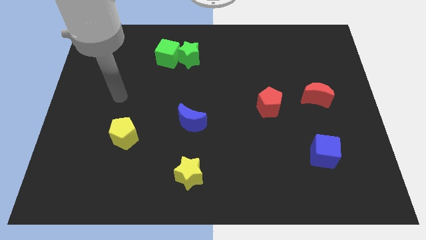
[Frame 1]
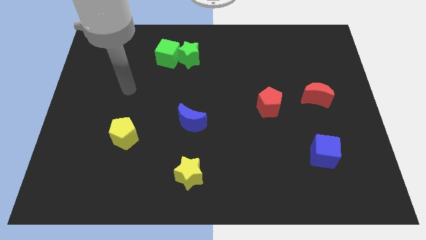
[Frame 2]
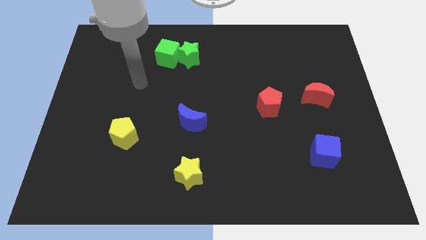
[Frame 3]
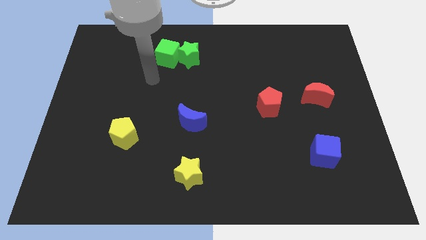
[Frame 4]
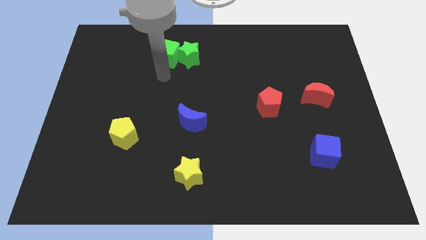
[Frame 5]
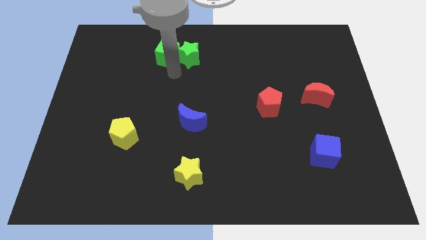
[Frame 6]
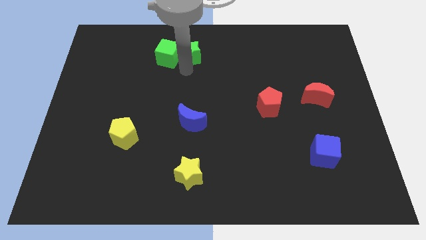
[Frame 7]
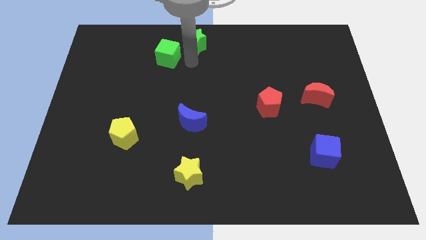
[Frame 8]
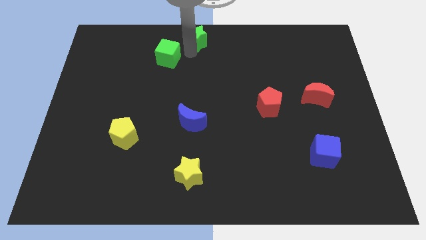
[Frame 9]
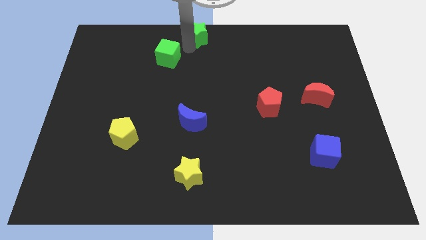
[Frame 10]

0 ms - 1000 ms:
pull the green cube apart from the green star

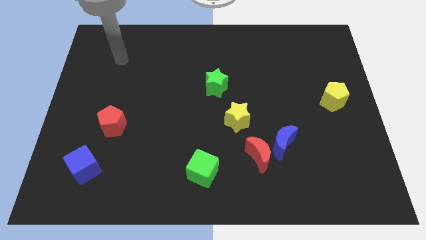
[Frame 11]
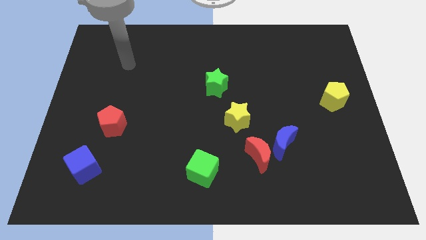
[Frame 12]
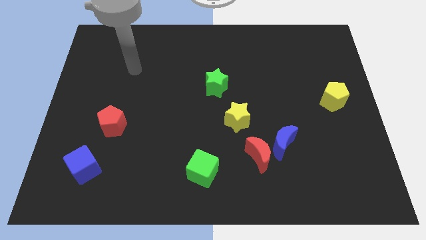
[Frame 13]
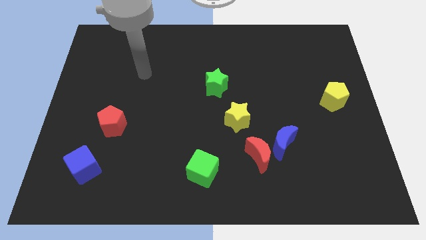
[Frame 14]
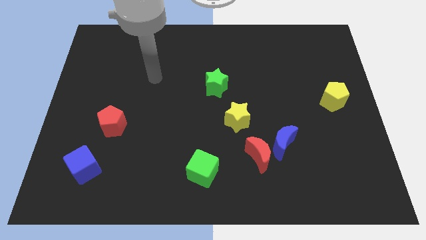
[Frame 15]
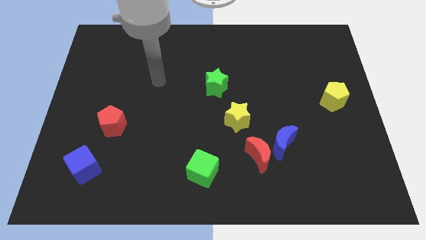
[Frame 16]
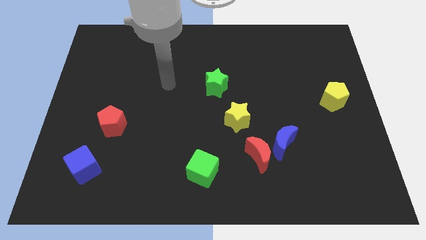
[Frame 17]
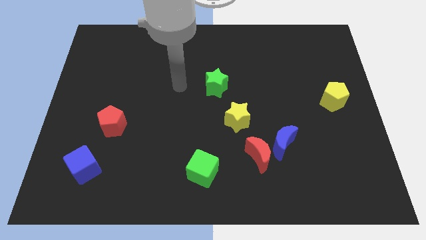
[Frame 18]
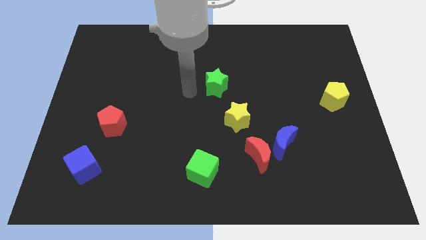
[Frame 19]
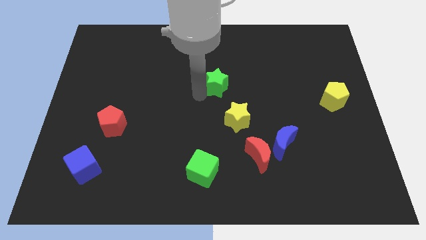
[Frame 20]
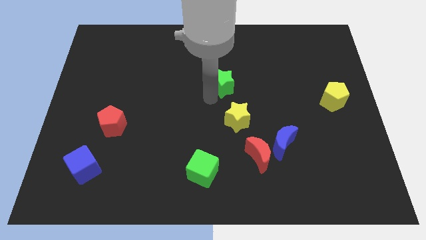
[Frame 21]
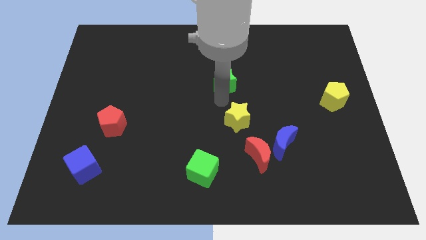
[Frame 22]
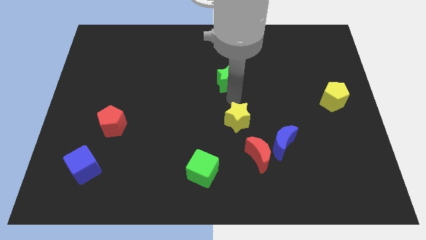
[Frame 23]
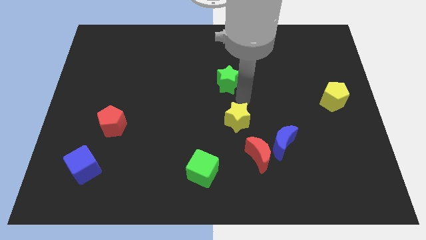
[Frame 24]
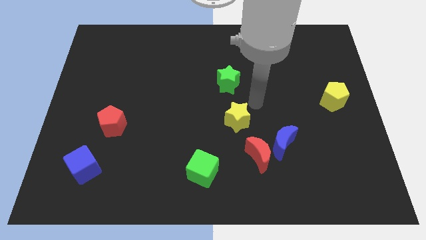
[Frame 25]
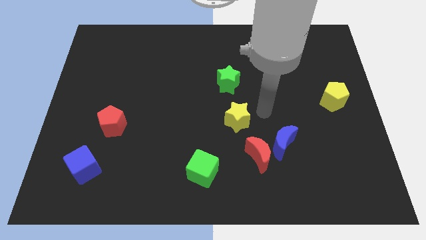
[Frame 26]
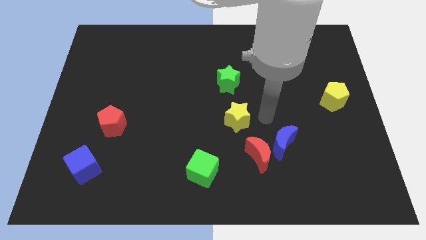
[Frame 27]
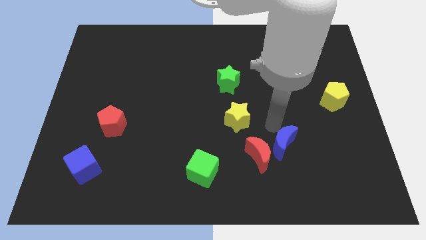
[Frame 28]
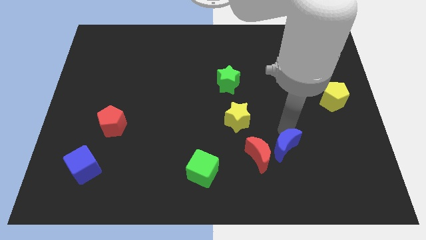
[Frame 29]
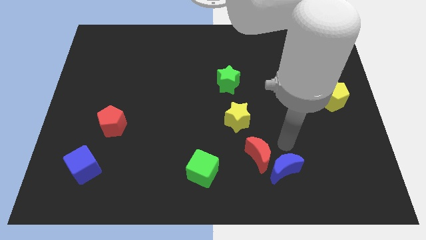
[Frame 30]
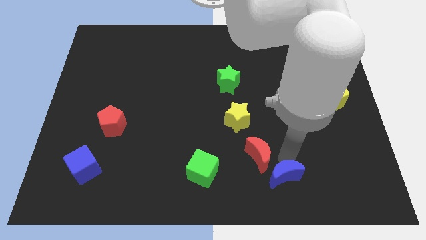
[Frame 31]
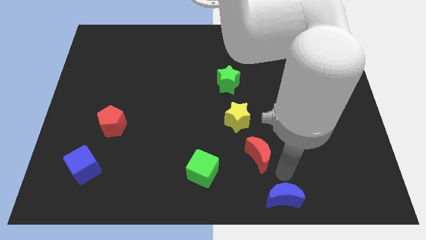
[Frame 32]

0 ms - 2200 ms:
move the red moon away from the blue moon

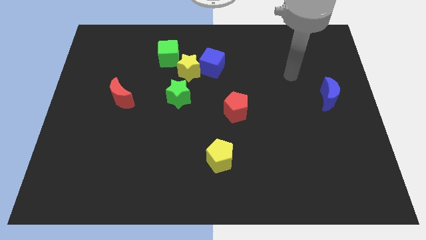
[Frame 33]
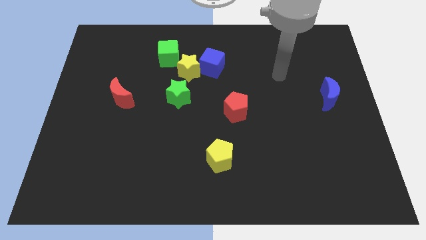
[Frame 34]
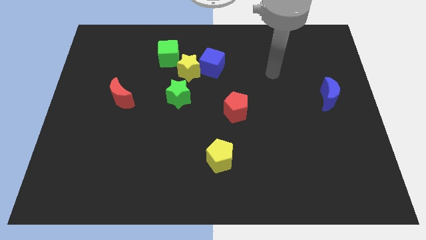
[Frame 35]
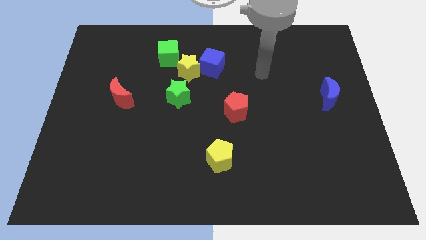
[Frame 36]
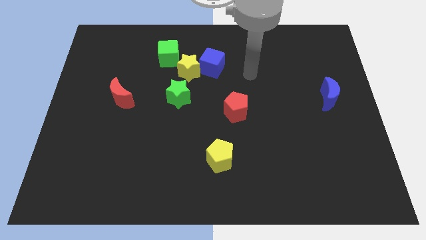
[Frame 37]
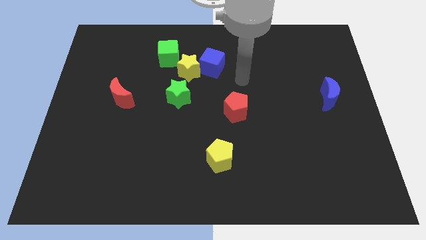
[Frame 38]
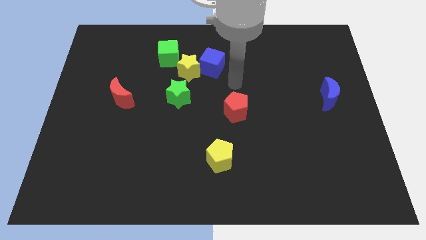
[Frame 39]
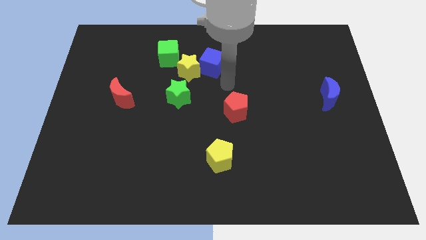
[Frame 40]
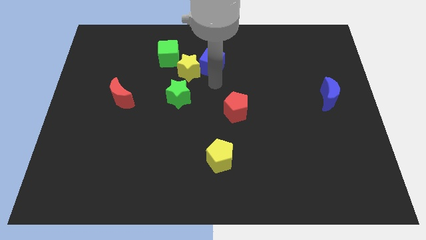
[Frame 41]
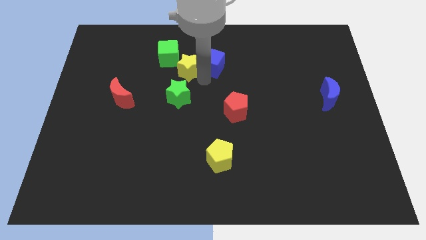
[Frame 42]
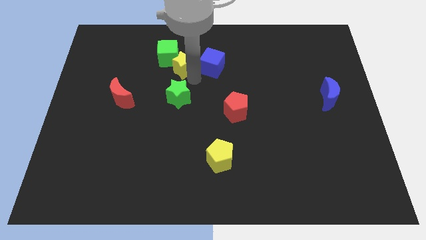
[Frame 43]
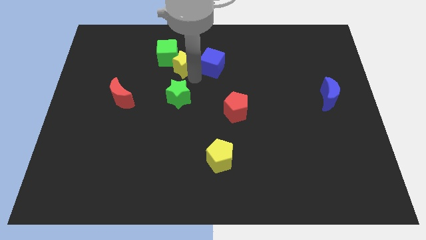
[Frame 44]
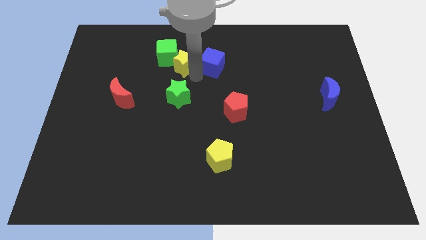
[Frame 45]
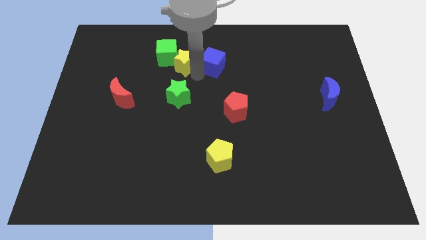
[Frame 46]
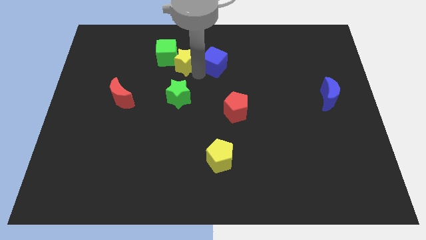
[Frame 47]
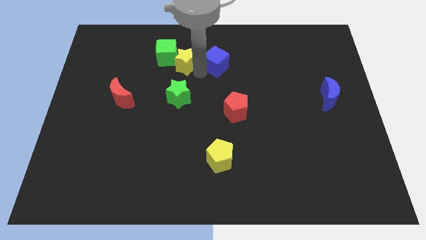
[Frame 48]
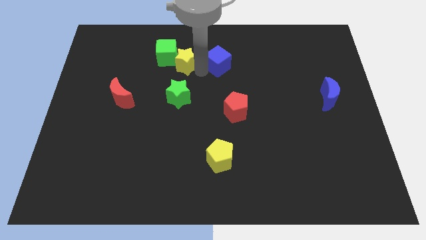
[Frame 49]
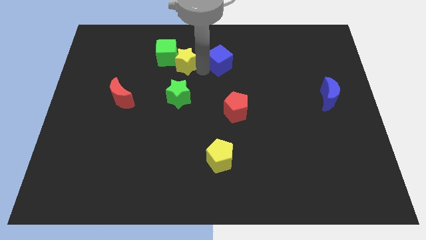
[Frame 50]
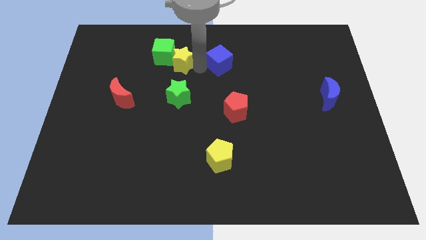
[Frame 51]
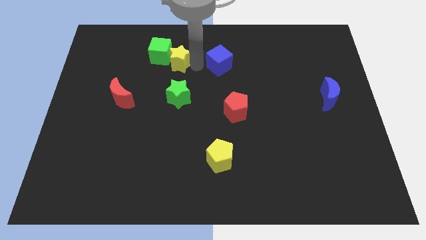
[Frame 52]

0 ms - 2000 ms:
move the blue cube away from the yellow star

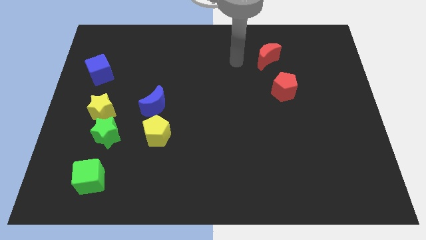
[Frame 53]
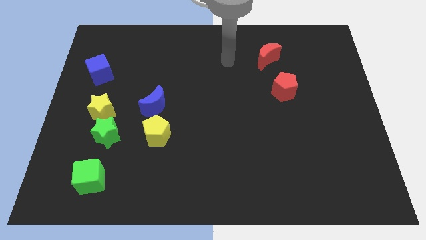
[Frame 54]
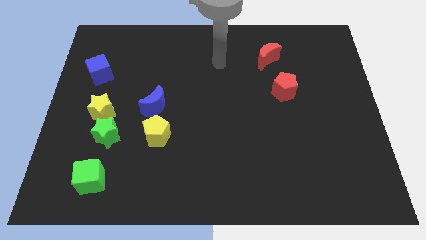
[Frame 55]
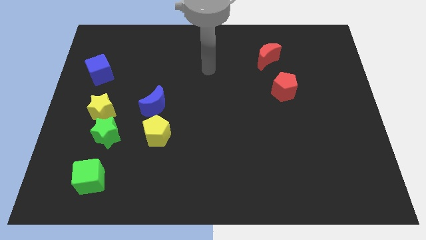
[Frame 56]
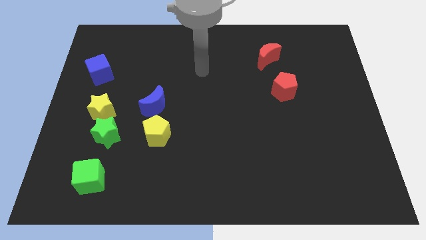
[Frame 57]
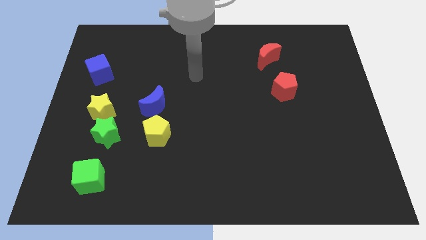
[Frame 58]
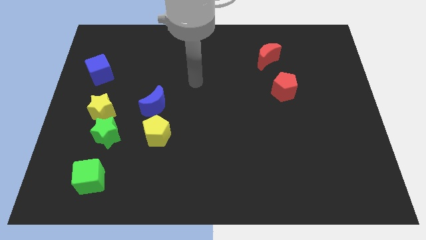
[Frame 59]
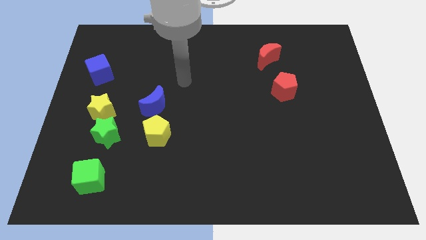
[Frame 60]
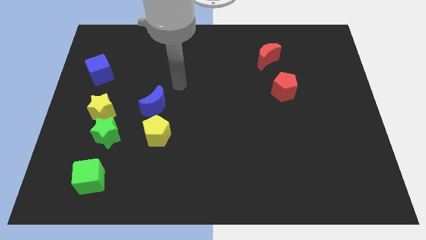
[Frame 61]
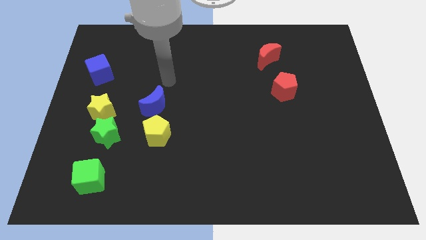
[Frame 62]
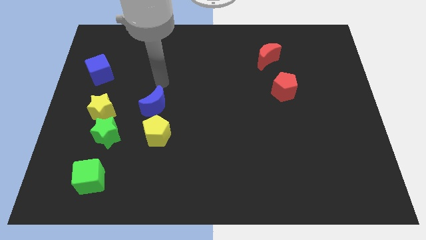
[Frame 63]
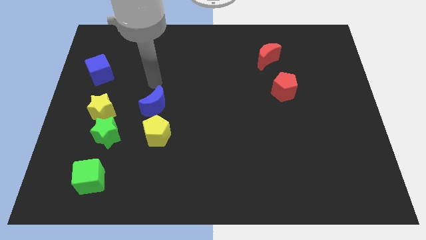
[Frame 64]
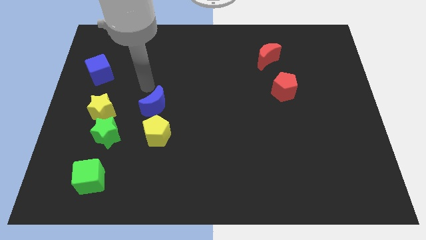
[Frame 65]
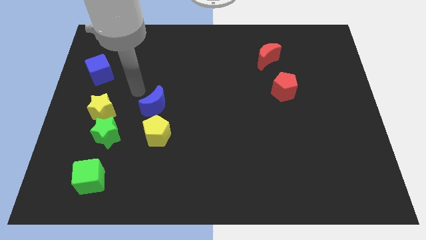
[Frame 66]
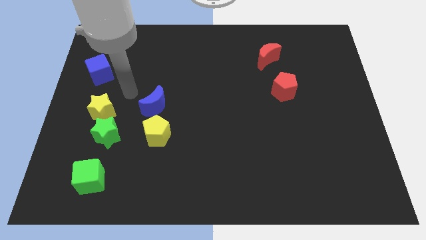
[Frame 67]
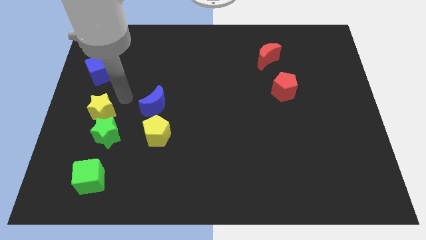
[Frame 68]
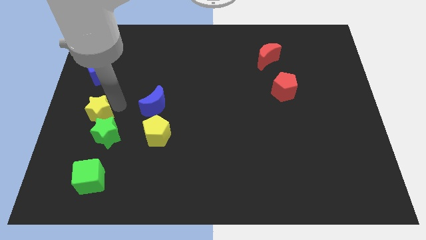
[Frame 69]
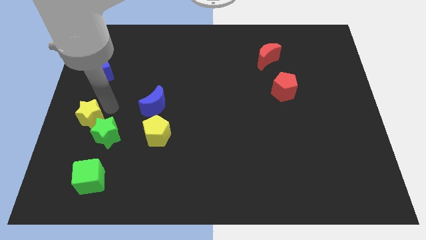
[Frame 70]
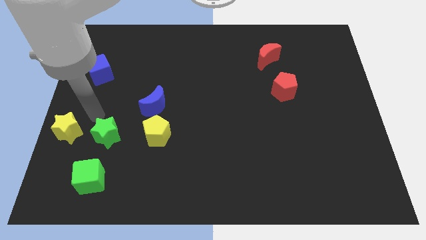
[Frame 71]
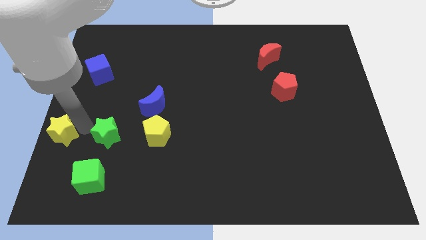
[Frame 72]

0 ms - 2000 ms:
separate the green star from the yellow star

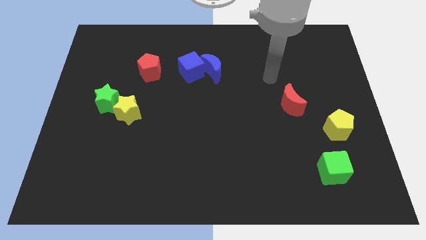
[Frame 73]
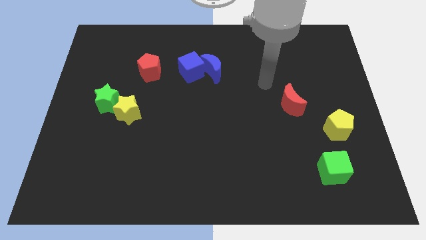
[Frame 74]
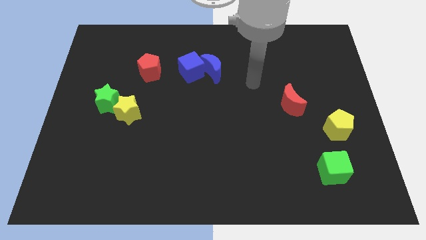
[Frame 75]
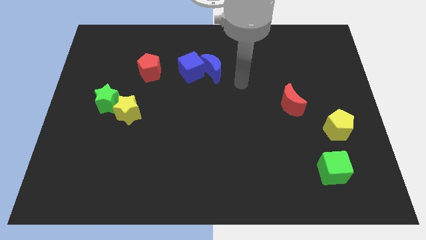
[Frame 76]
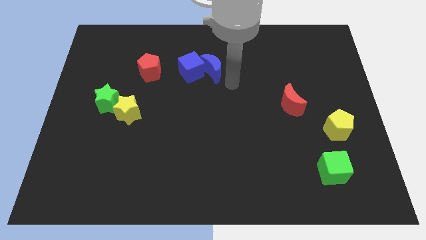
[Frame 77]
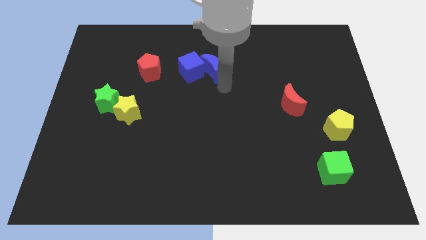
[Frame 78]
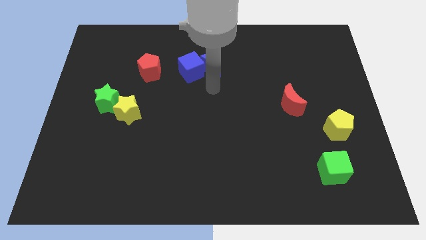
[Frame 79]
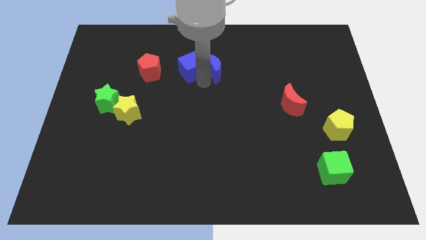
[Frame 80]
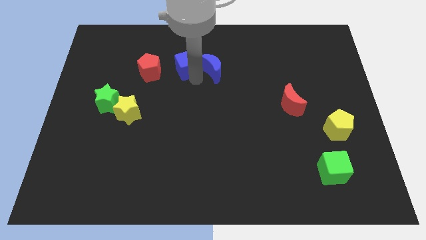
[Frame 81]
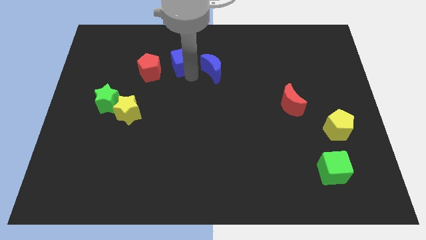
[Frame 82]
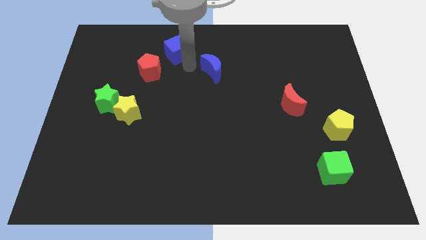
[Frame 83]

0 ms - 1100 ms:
pull the blue moon apart from the blue cube

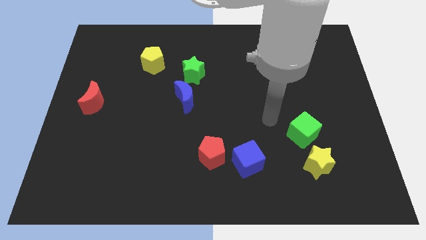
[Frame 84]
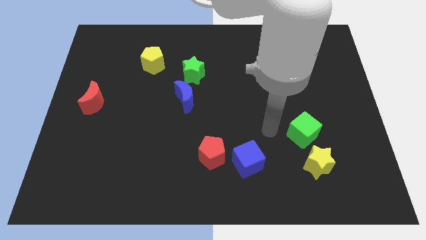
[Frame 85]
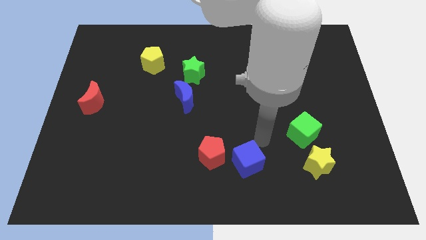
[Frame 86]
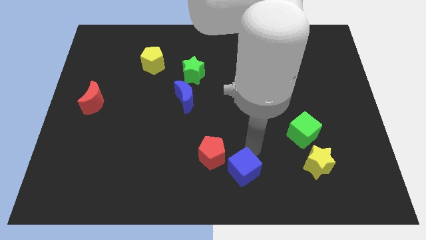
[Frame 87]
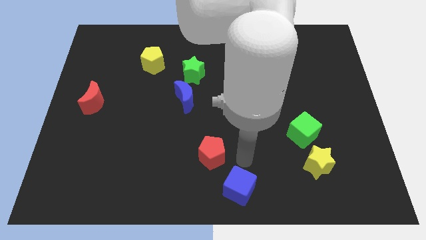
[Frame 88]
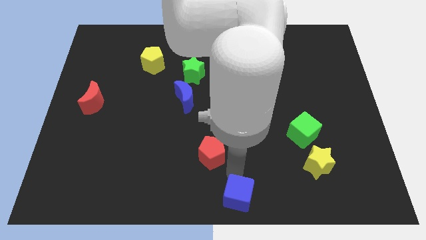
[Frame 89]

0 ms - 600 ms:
move the red pentagon away from the blue cube

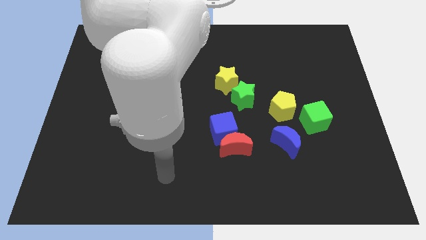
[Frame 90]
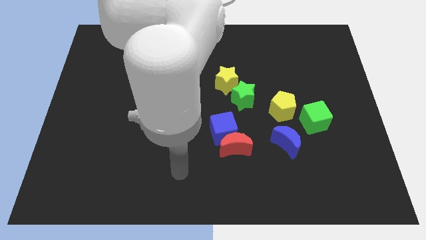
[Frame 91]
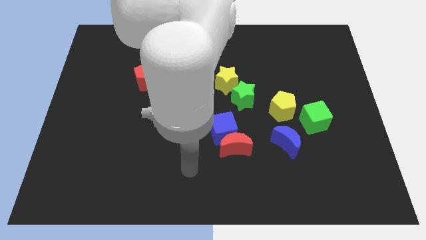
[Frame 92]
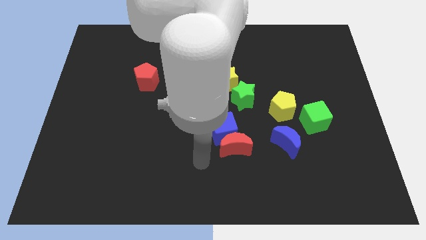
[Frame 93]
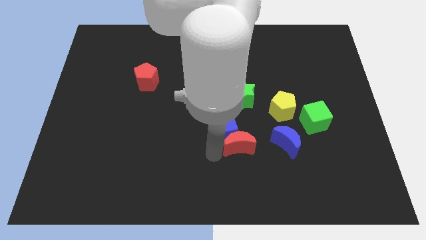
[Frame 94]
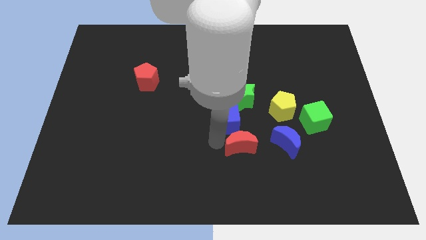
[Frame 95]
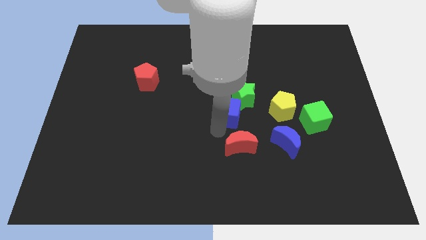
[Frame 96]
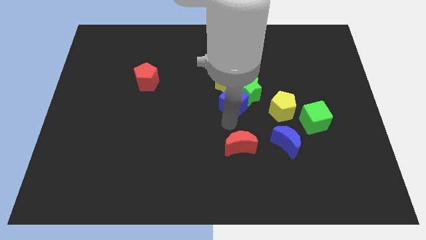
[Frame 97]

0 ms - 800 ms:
separate the red moon from the blue cube
